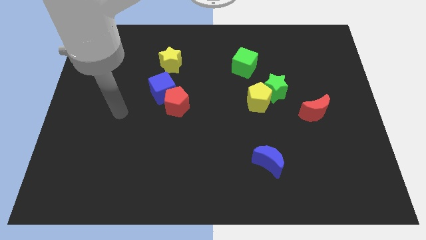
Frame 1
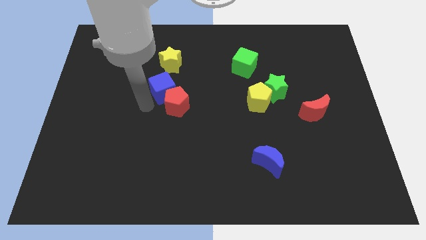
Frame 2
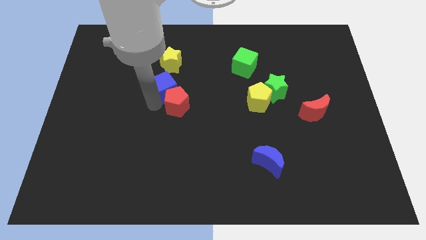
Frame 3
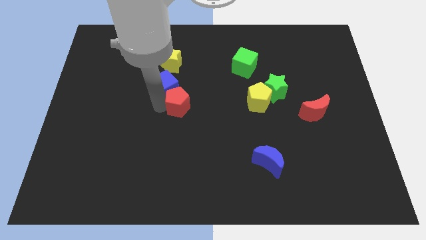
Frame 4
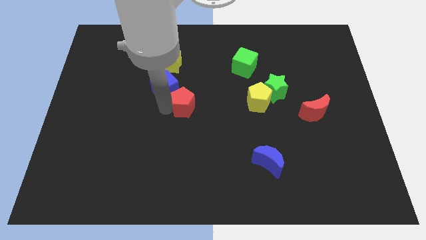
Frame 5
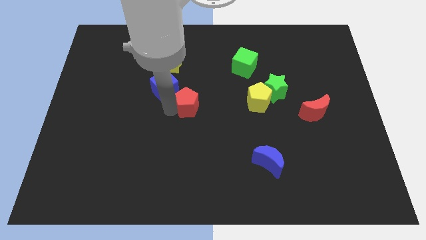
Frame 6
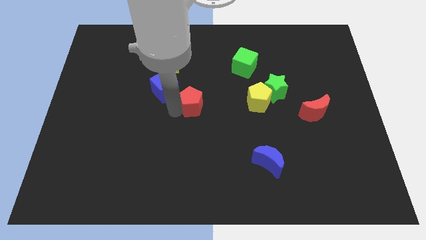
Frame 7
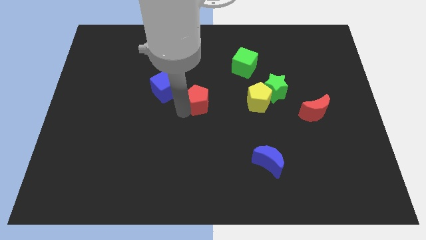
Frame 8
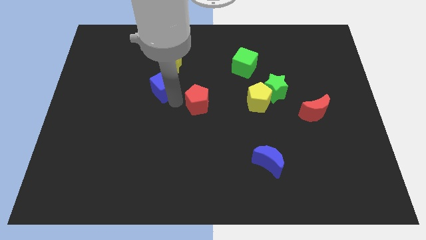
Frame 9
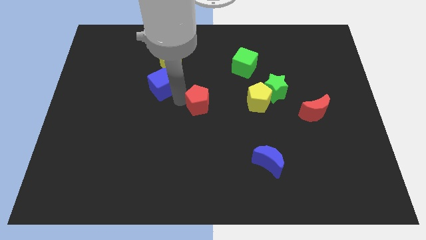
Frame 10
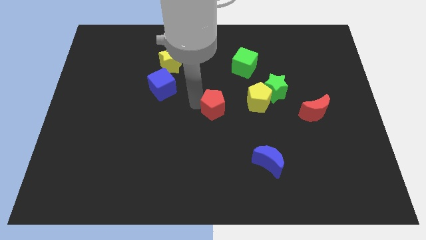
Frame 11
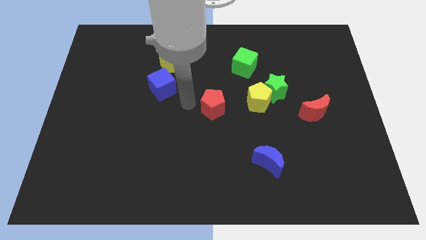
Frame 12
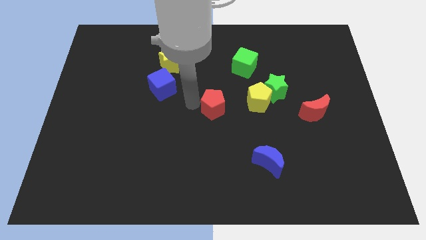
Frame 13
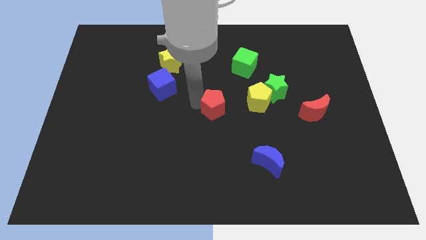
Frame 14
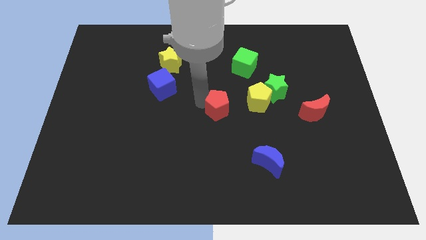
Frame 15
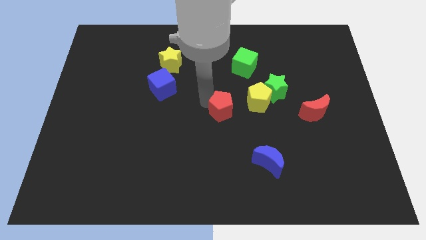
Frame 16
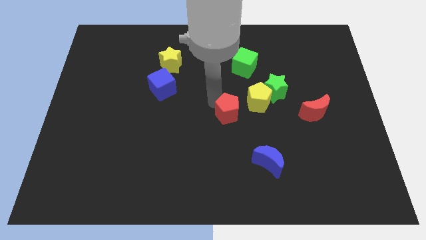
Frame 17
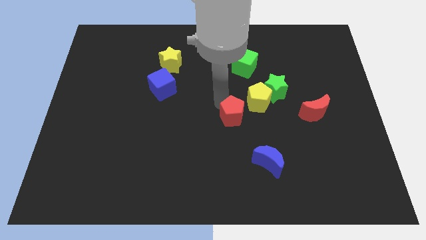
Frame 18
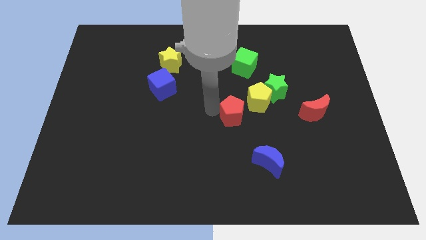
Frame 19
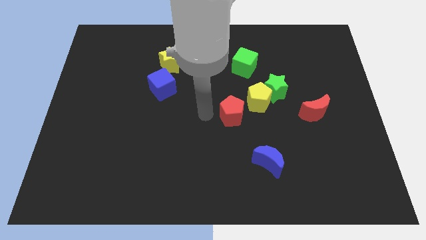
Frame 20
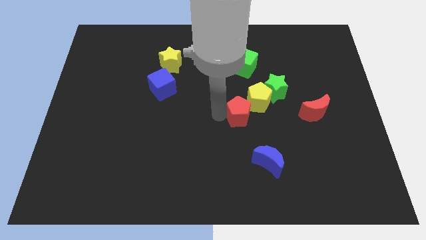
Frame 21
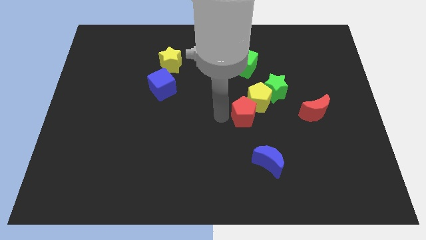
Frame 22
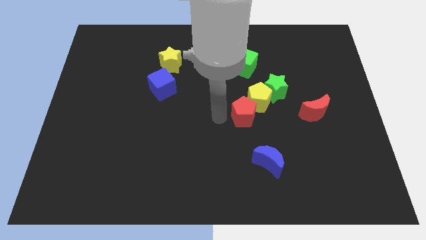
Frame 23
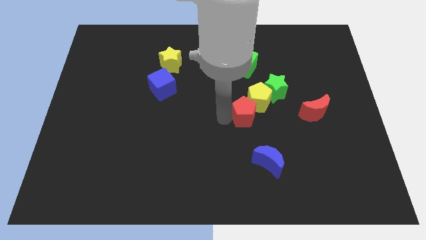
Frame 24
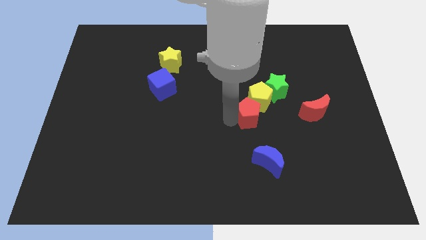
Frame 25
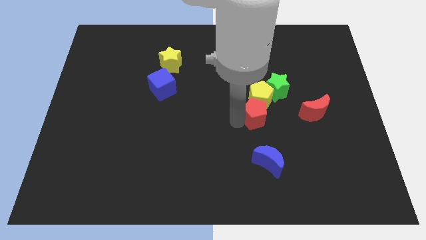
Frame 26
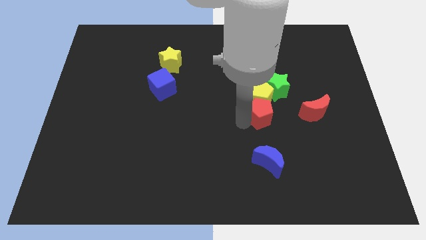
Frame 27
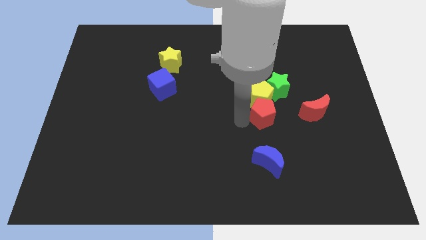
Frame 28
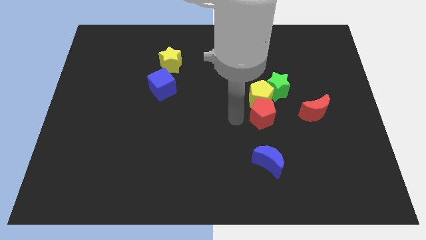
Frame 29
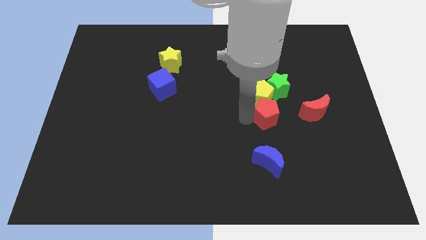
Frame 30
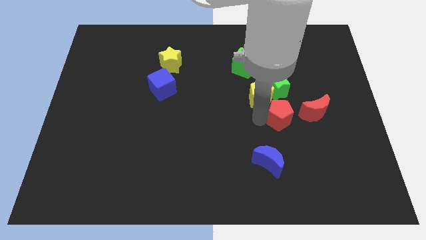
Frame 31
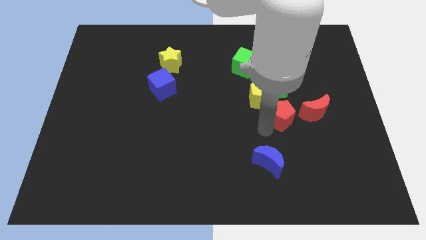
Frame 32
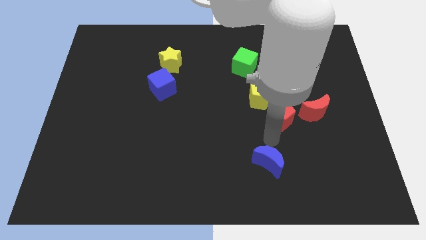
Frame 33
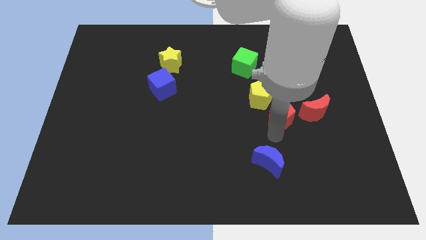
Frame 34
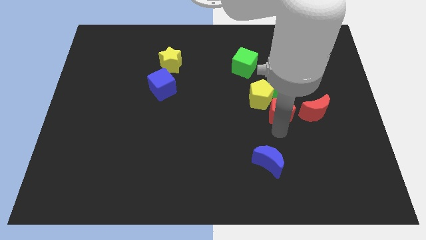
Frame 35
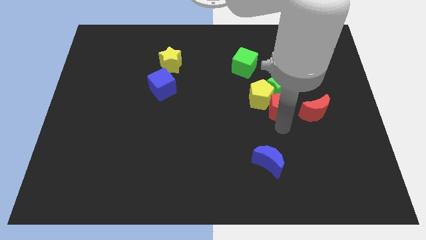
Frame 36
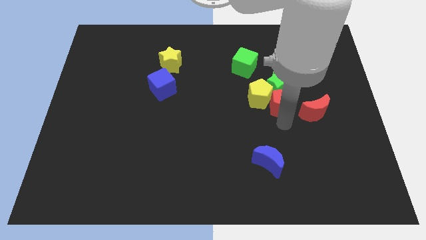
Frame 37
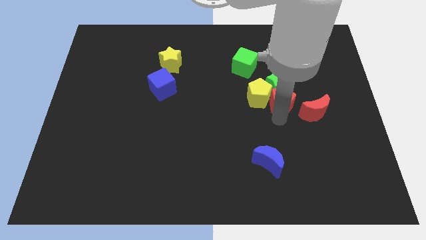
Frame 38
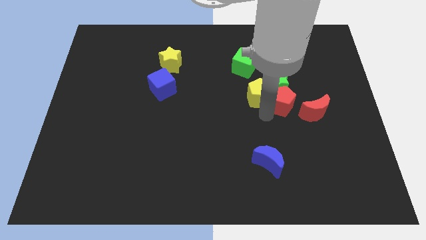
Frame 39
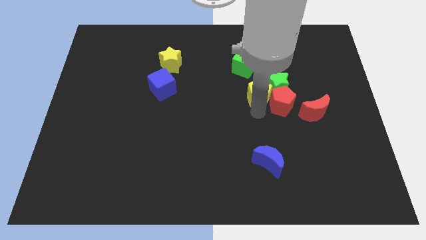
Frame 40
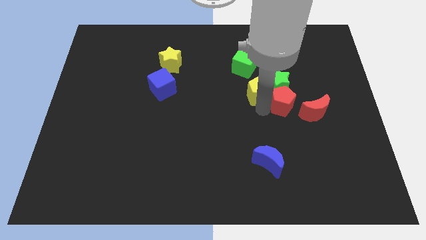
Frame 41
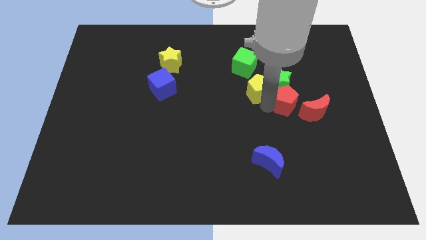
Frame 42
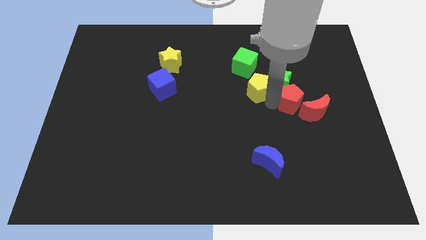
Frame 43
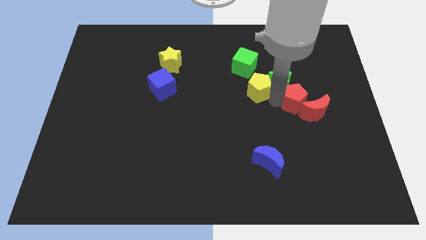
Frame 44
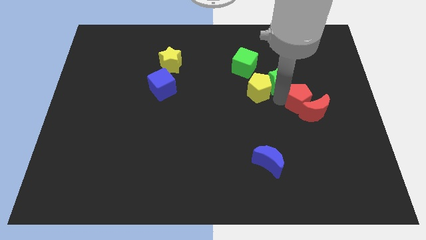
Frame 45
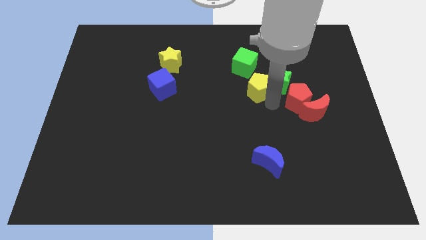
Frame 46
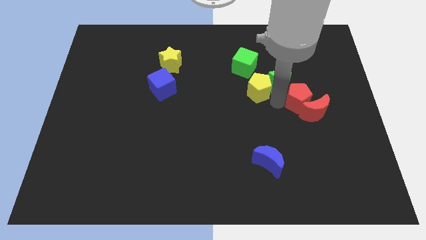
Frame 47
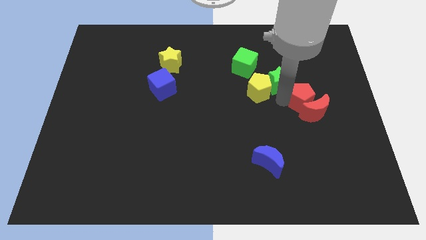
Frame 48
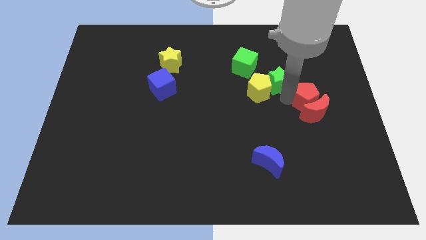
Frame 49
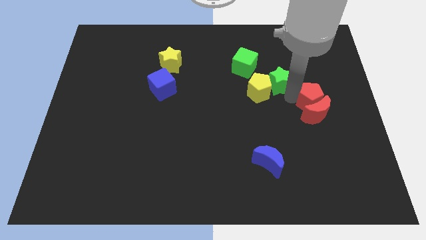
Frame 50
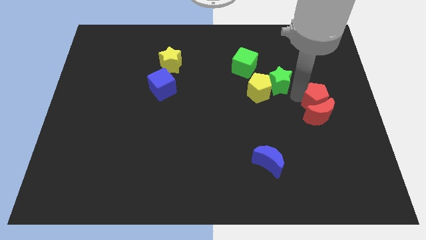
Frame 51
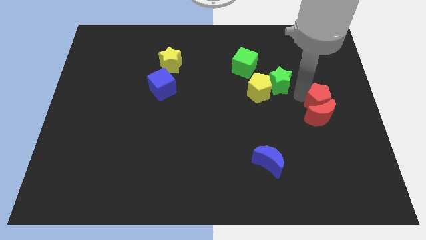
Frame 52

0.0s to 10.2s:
move the red pentagon to the right side of the board

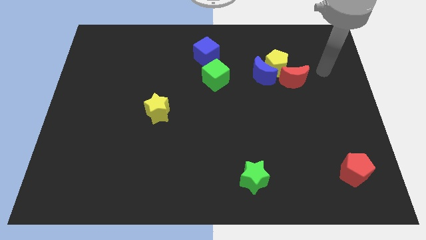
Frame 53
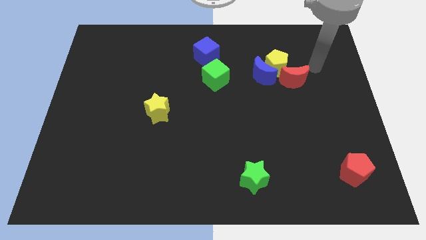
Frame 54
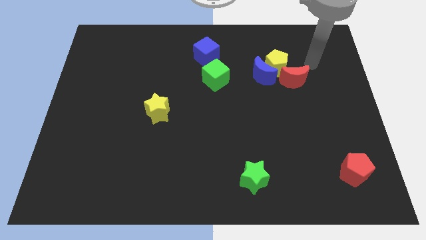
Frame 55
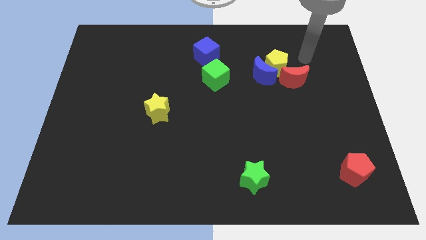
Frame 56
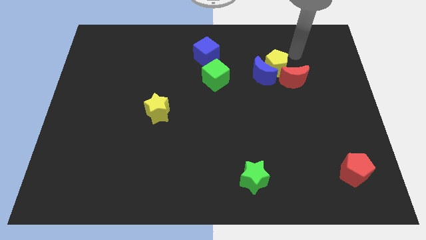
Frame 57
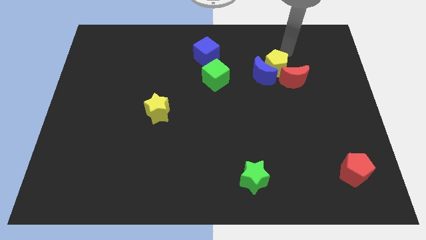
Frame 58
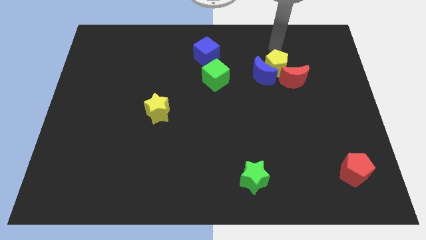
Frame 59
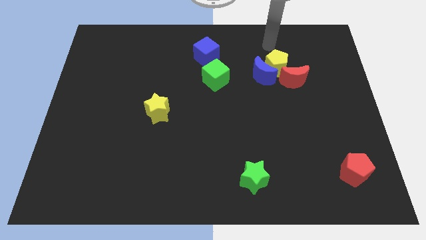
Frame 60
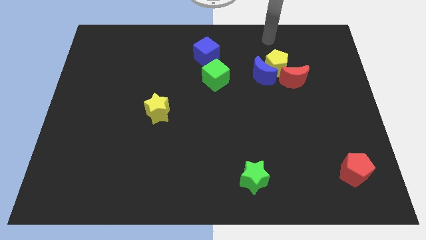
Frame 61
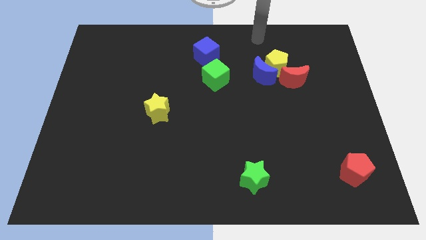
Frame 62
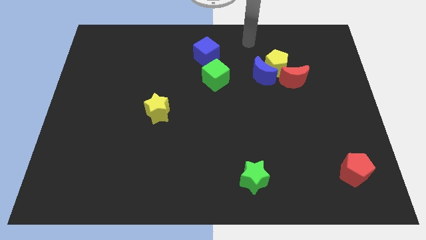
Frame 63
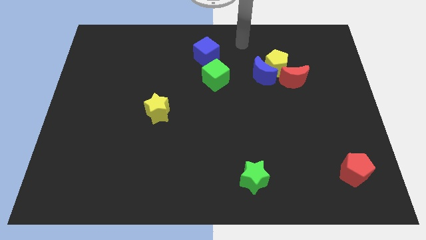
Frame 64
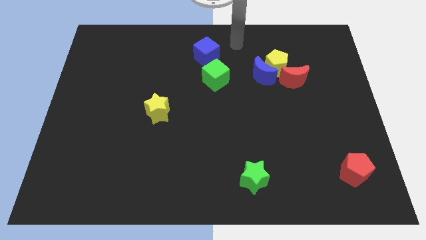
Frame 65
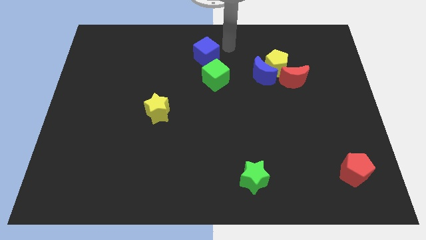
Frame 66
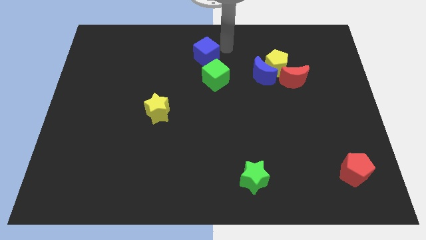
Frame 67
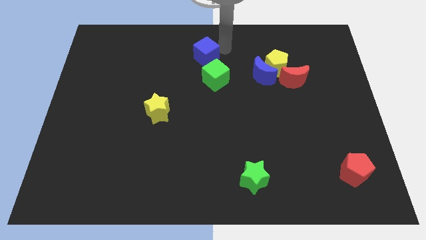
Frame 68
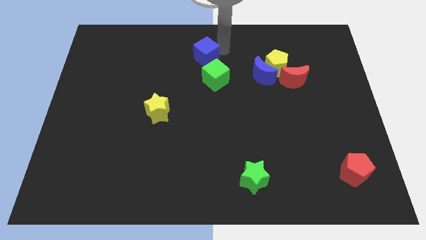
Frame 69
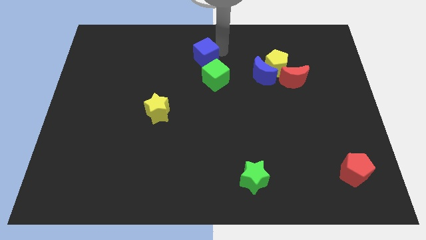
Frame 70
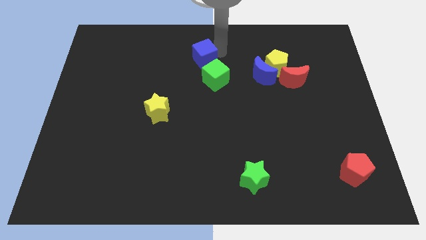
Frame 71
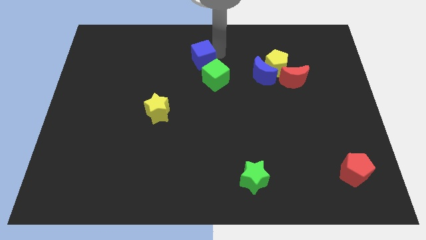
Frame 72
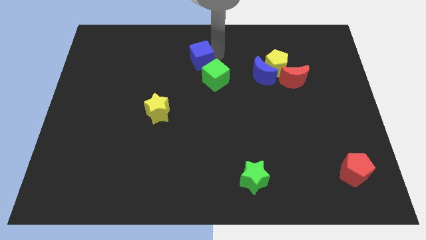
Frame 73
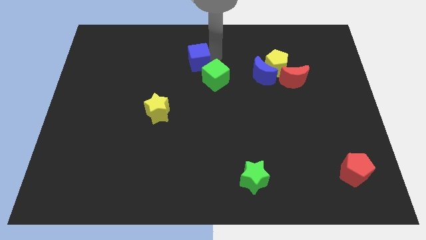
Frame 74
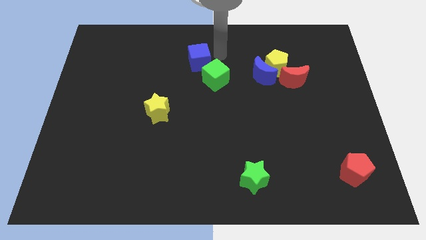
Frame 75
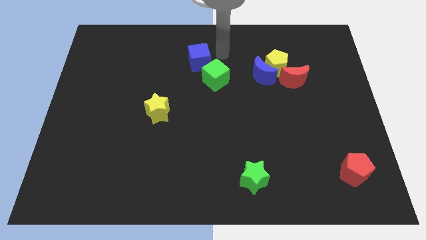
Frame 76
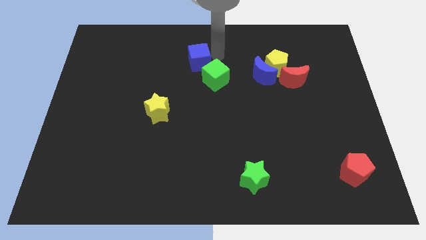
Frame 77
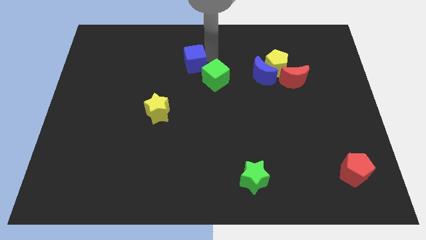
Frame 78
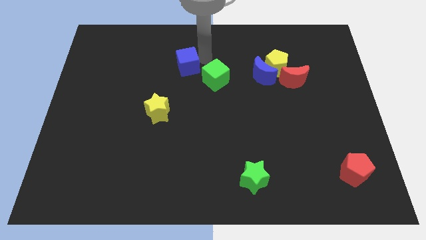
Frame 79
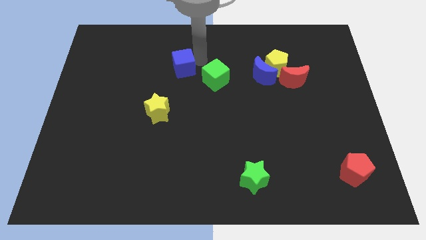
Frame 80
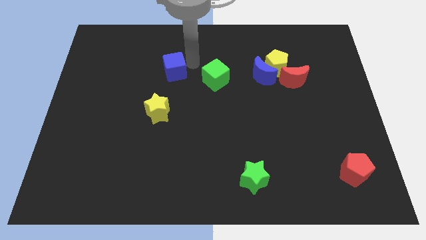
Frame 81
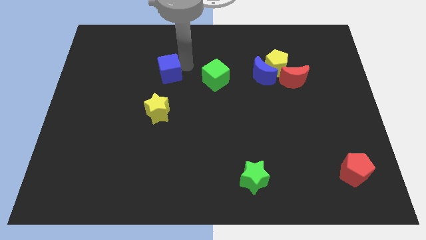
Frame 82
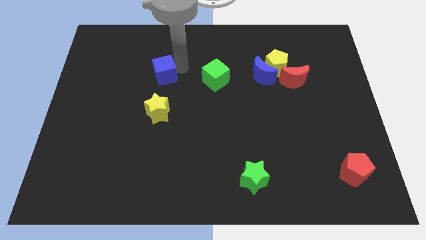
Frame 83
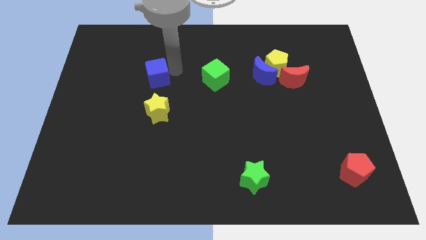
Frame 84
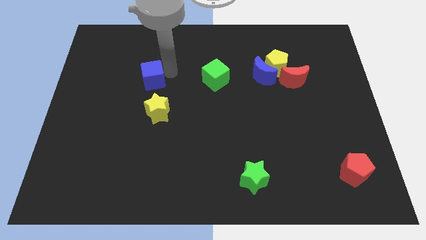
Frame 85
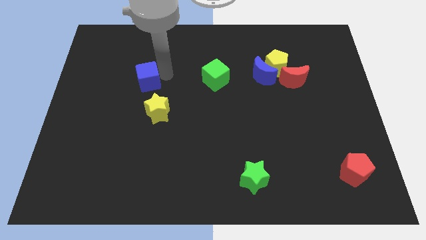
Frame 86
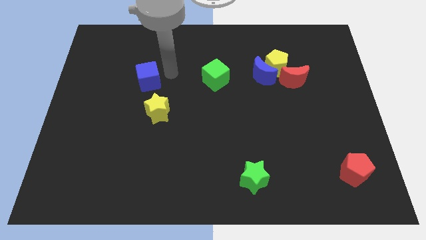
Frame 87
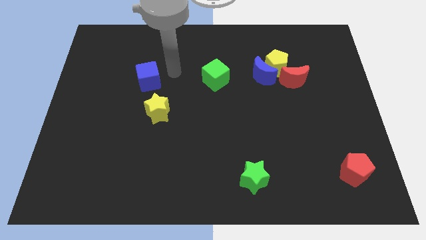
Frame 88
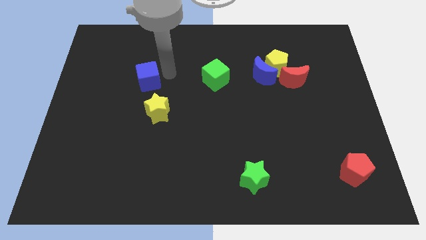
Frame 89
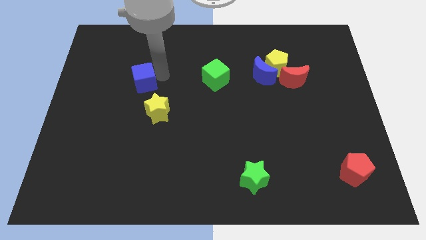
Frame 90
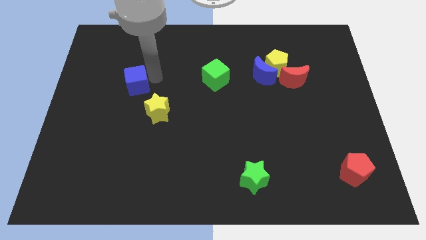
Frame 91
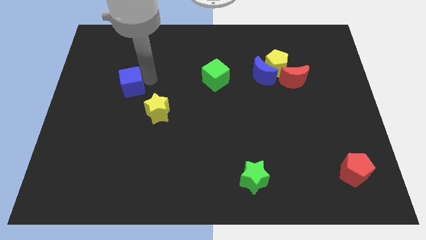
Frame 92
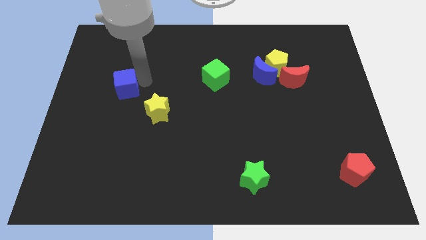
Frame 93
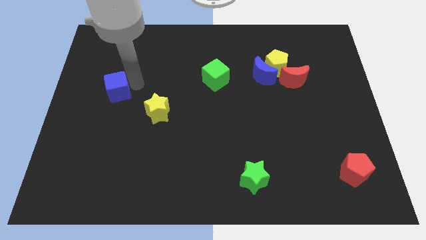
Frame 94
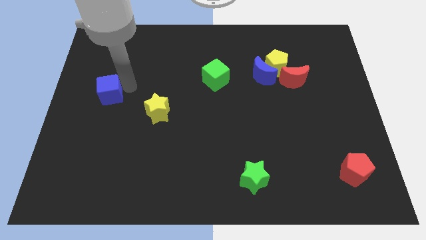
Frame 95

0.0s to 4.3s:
move the blue cube to the left side
